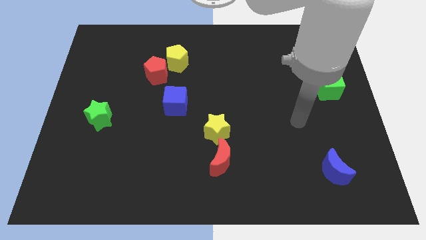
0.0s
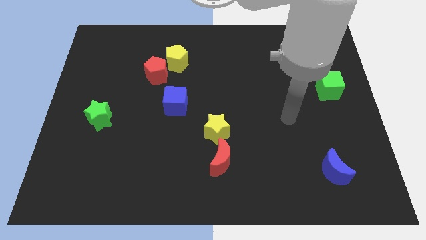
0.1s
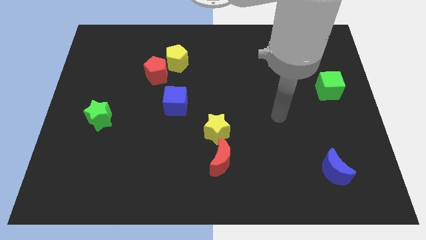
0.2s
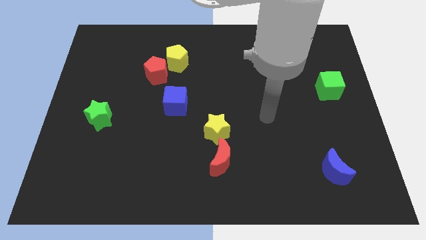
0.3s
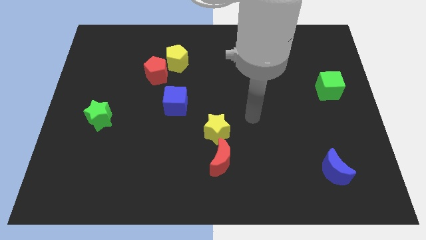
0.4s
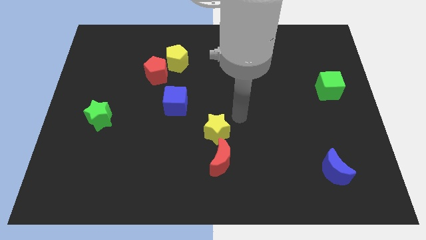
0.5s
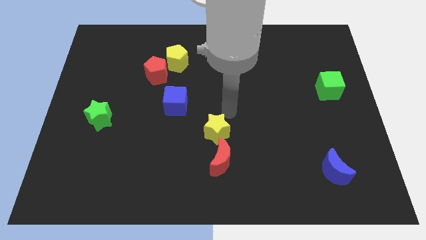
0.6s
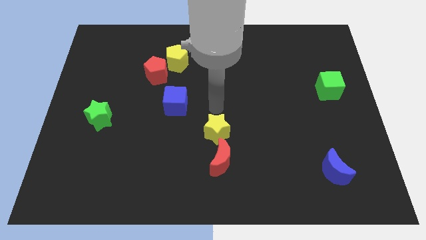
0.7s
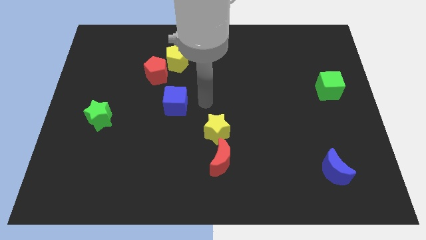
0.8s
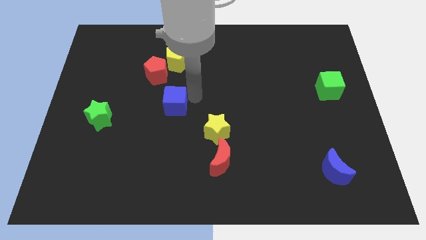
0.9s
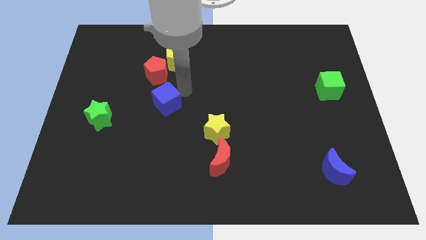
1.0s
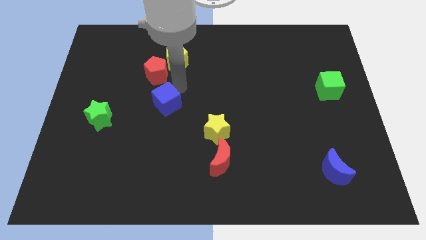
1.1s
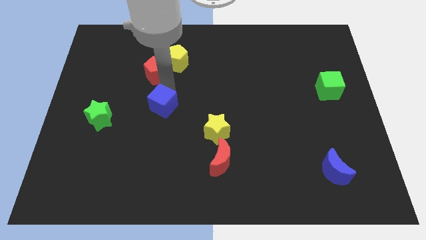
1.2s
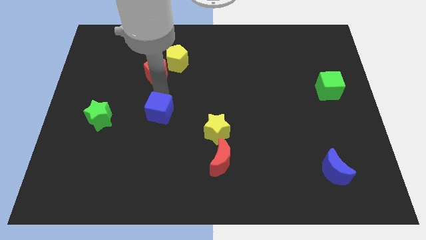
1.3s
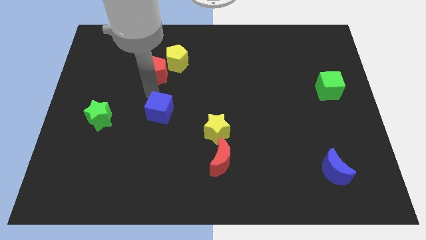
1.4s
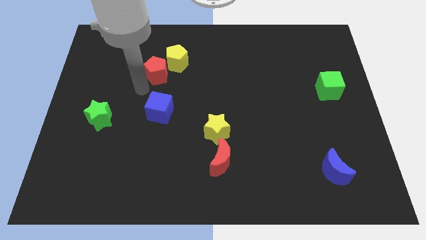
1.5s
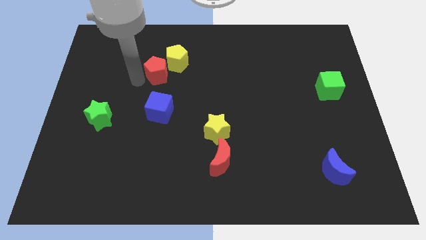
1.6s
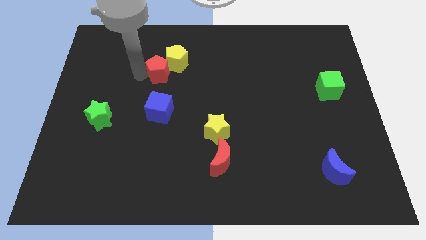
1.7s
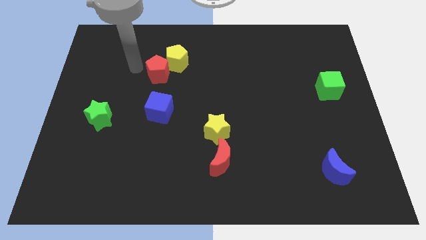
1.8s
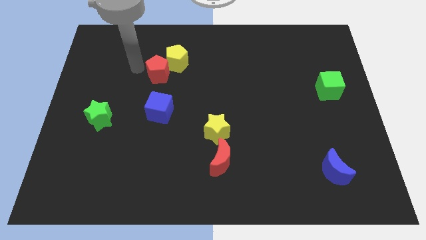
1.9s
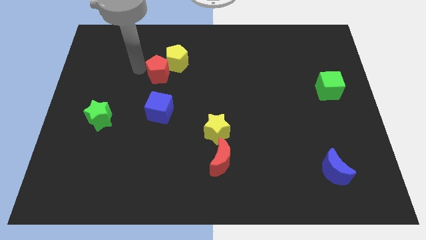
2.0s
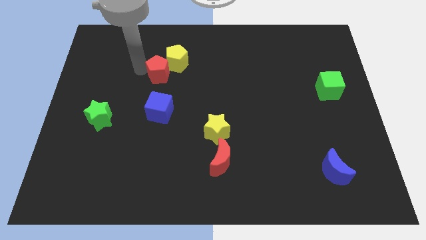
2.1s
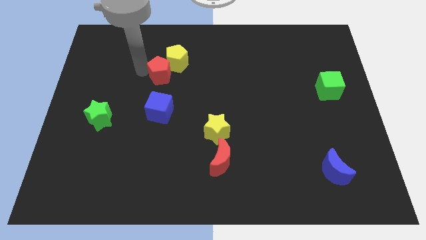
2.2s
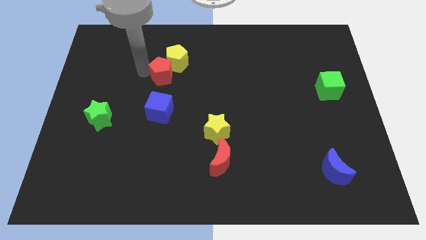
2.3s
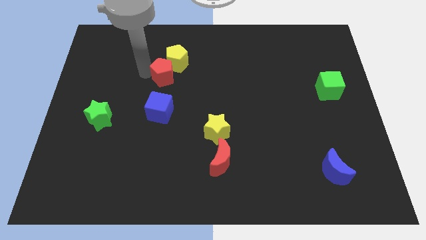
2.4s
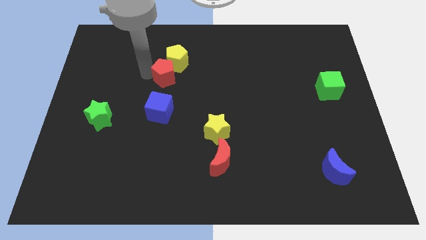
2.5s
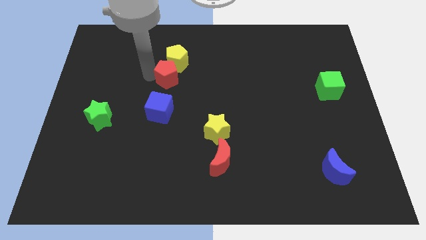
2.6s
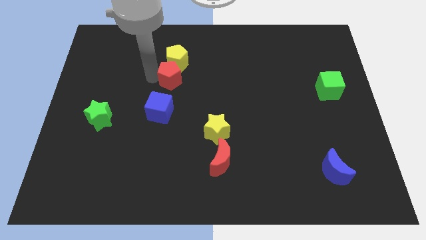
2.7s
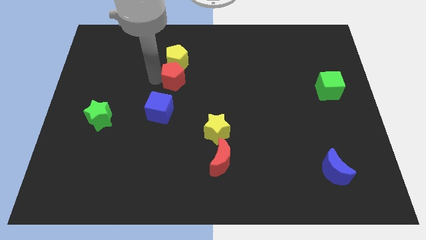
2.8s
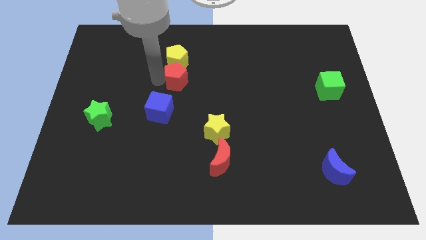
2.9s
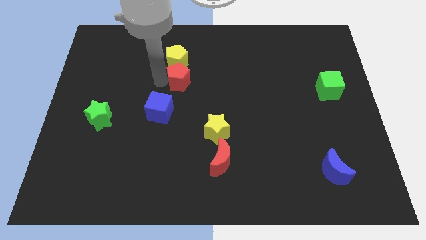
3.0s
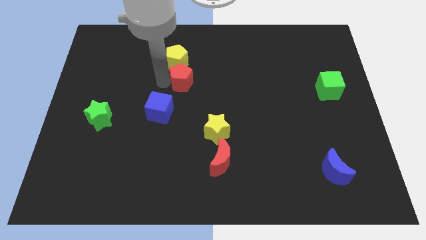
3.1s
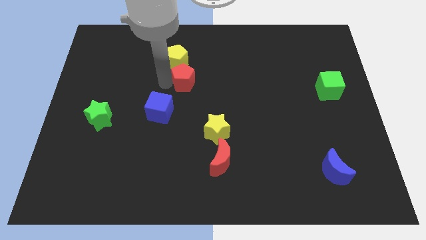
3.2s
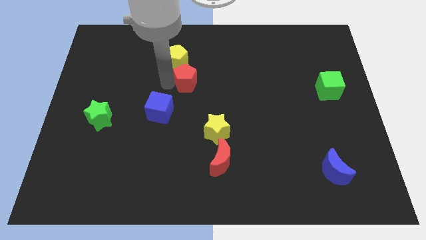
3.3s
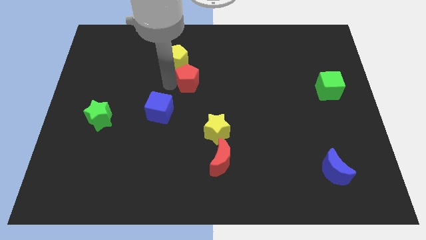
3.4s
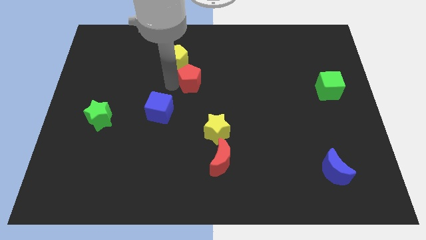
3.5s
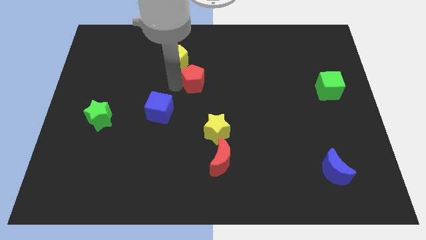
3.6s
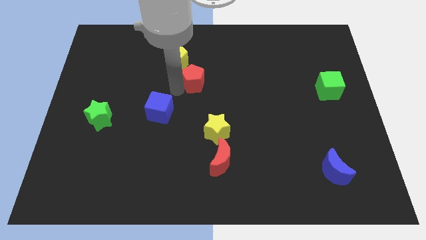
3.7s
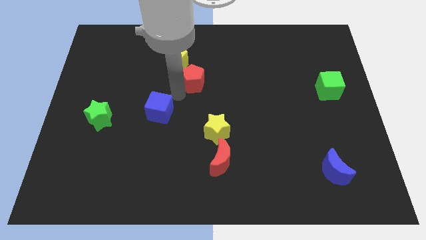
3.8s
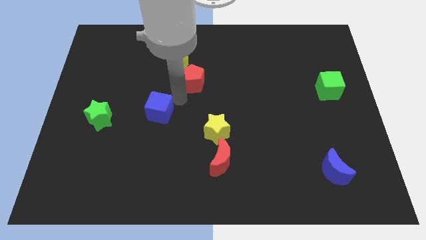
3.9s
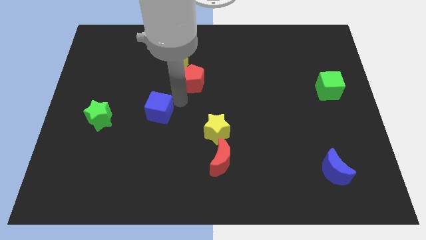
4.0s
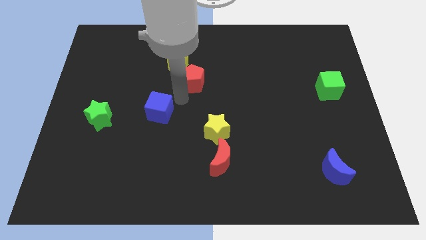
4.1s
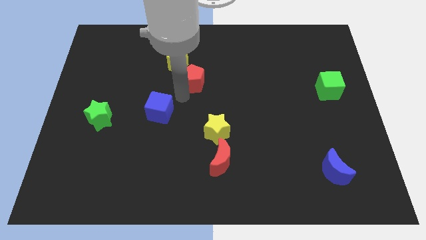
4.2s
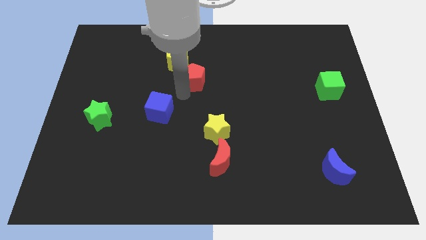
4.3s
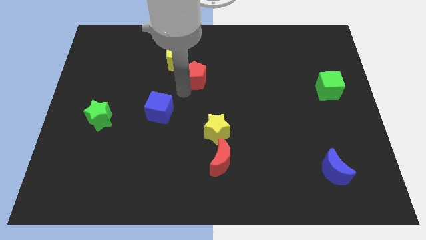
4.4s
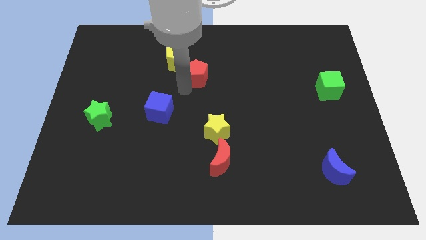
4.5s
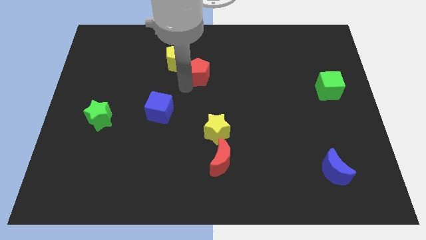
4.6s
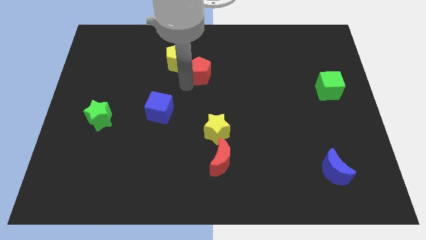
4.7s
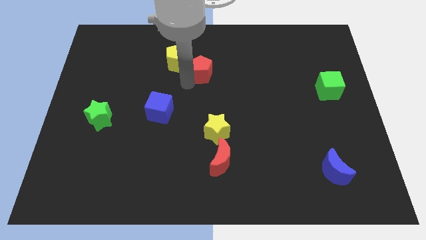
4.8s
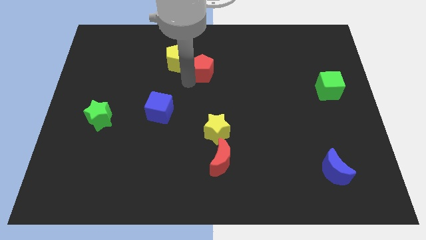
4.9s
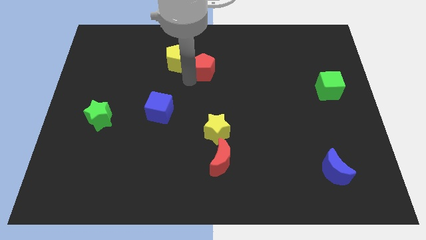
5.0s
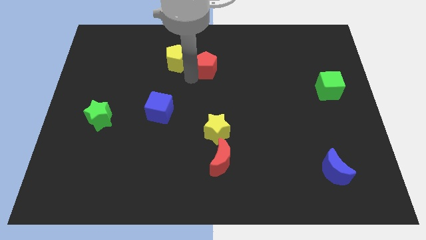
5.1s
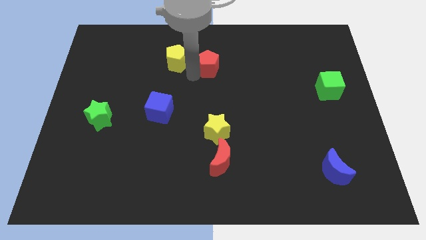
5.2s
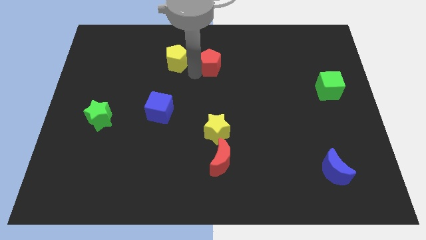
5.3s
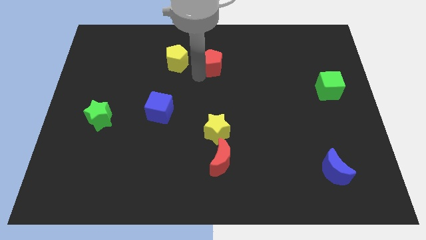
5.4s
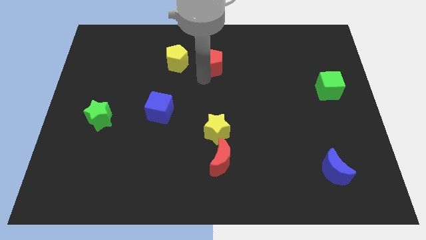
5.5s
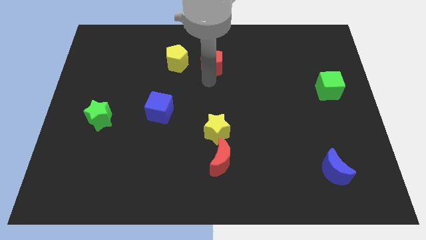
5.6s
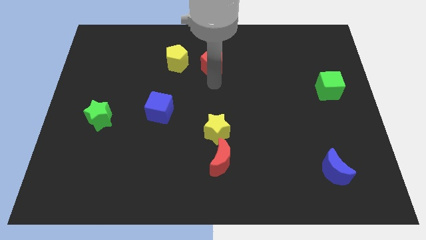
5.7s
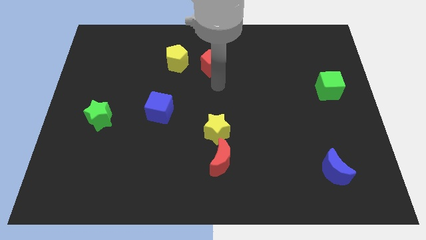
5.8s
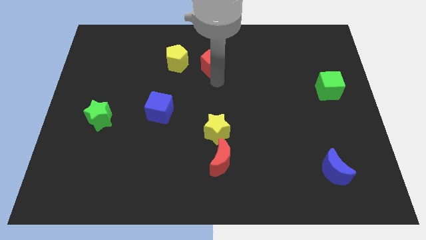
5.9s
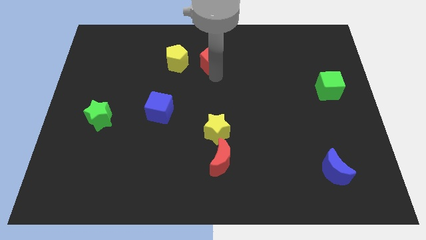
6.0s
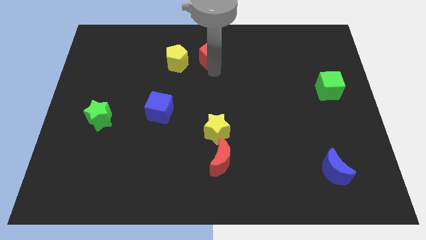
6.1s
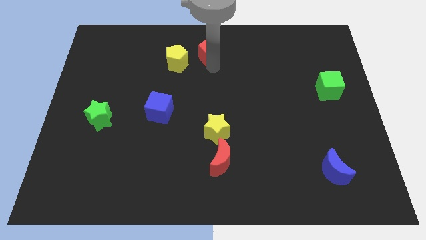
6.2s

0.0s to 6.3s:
push the red pentagon to the top side
